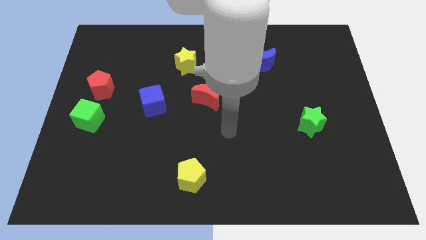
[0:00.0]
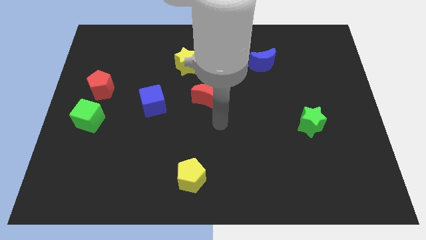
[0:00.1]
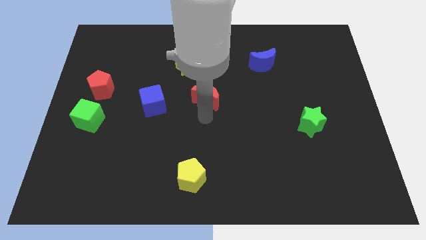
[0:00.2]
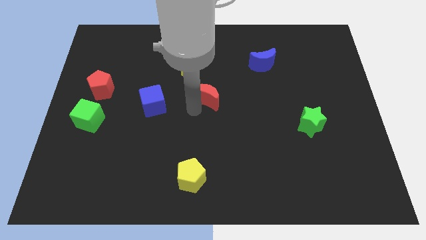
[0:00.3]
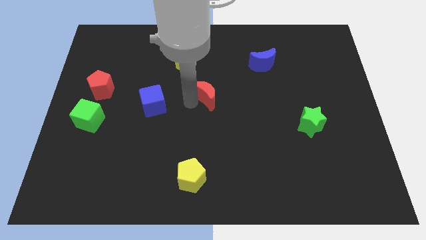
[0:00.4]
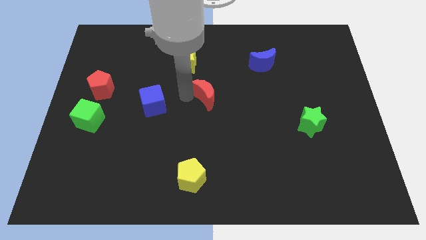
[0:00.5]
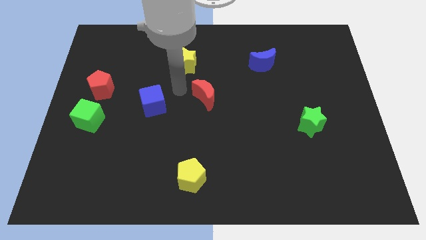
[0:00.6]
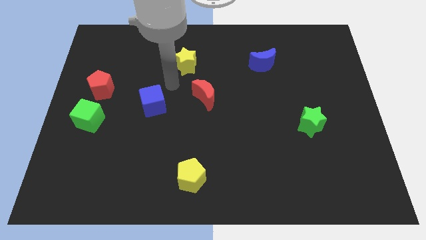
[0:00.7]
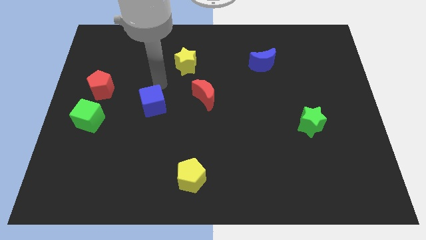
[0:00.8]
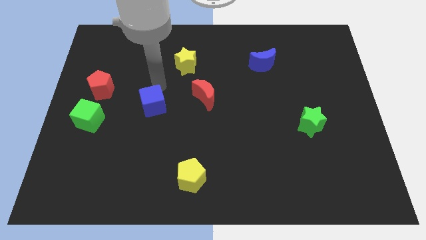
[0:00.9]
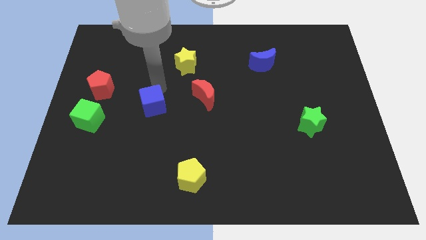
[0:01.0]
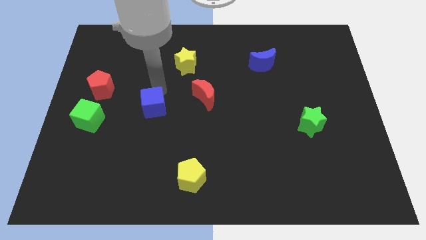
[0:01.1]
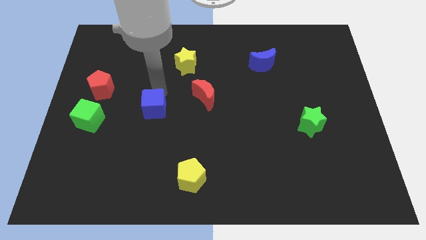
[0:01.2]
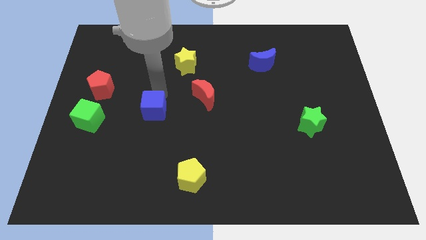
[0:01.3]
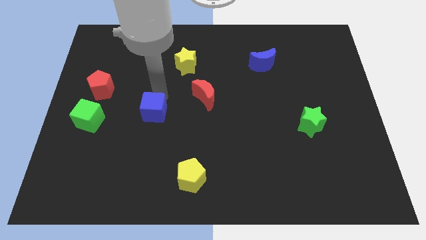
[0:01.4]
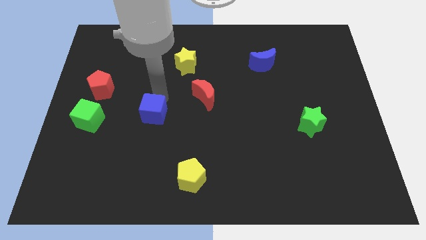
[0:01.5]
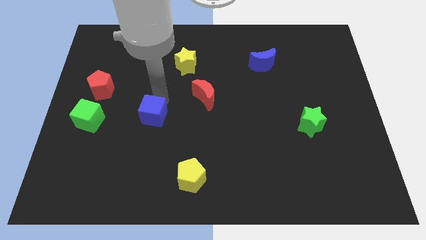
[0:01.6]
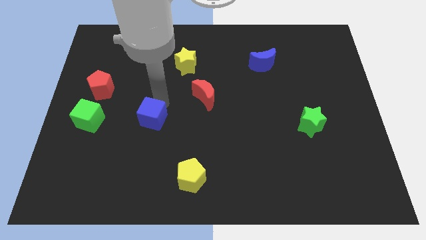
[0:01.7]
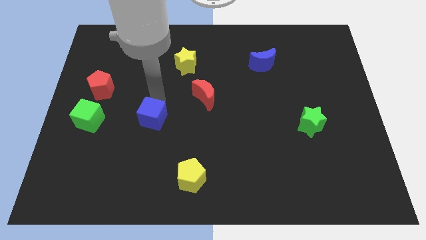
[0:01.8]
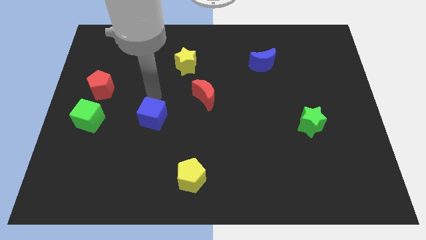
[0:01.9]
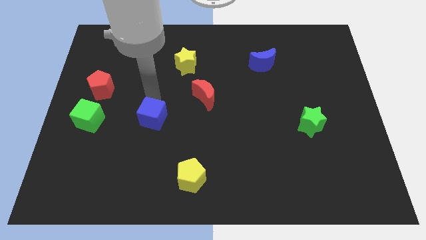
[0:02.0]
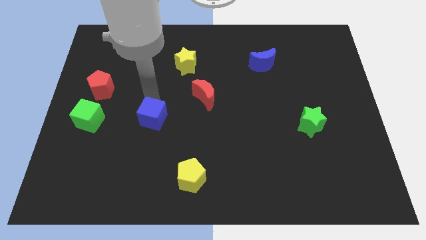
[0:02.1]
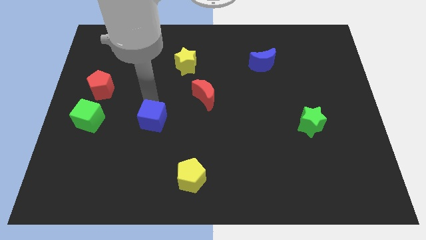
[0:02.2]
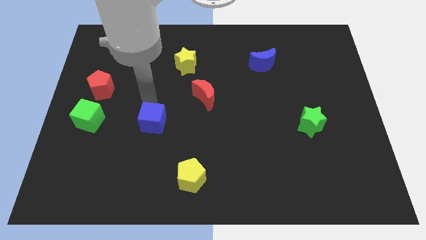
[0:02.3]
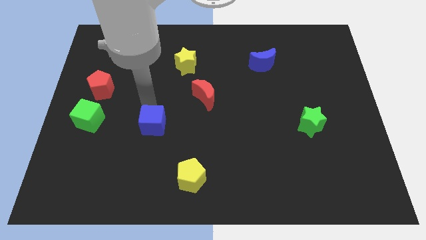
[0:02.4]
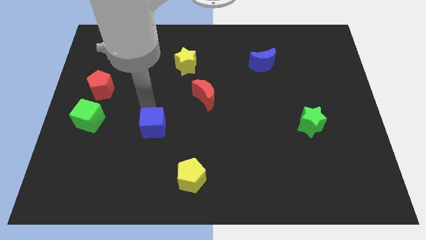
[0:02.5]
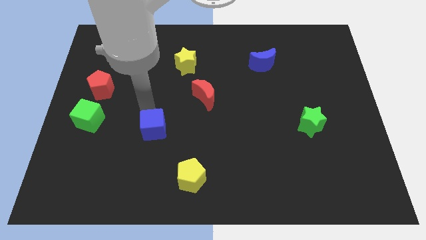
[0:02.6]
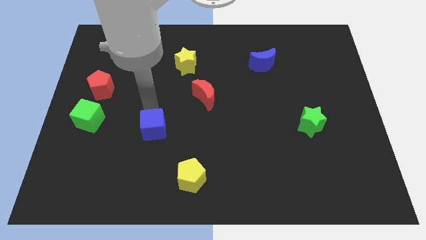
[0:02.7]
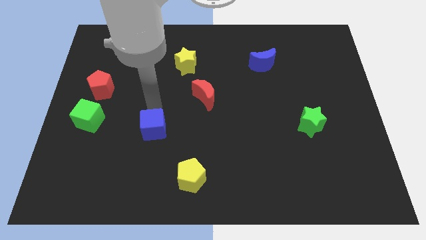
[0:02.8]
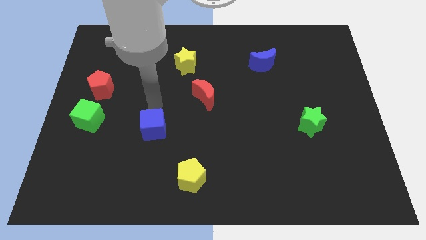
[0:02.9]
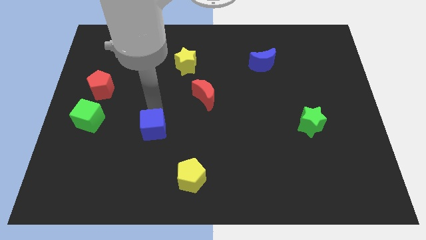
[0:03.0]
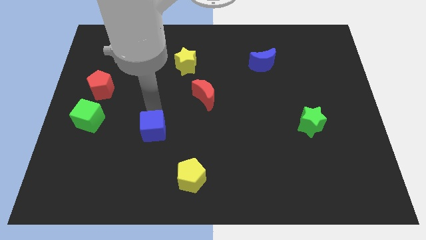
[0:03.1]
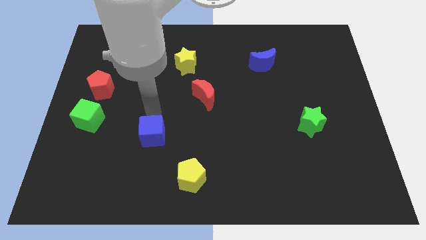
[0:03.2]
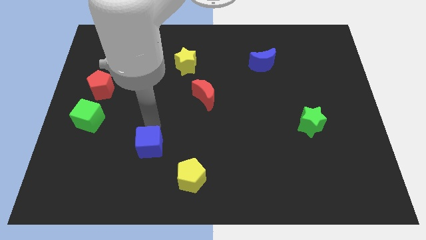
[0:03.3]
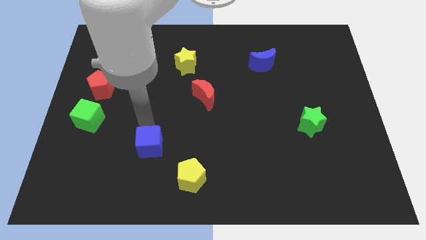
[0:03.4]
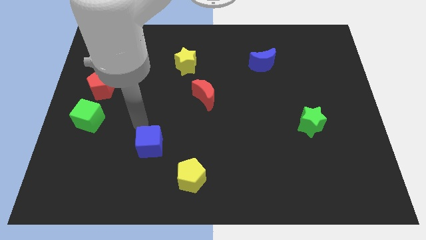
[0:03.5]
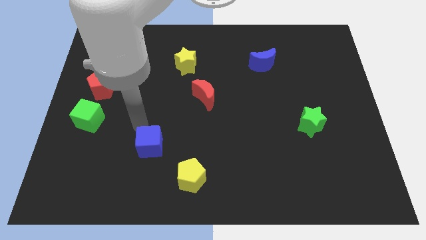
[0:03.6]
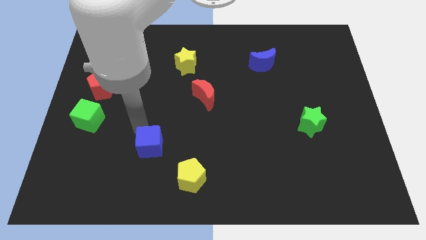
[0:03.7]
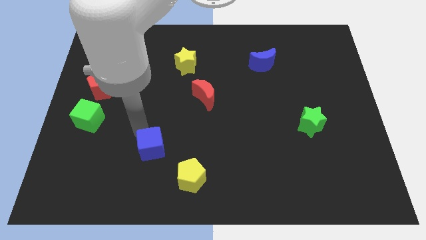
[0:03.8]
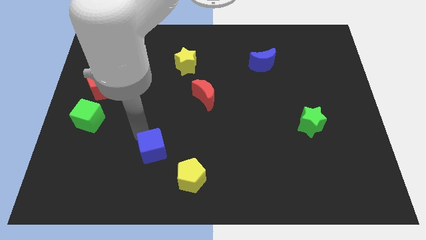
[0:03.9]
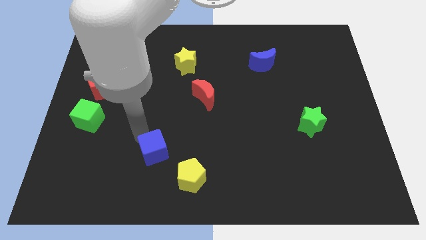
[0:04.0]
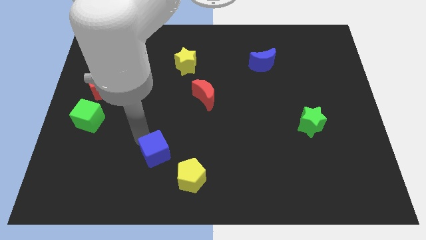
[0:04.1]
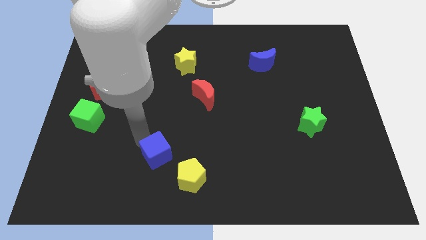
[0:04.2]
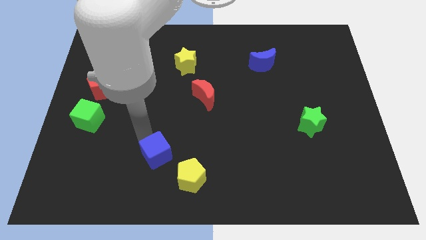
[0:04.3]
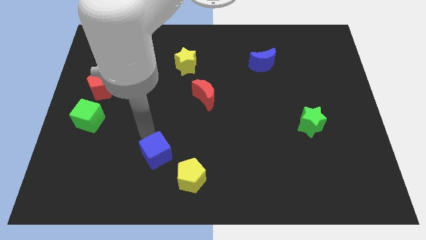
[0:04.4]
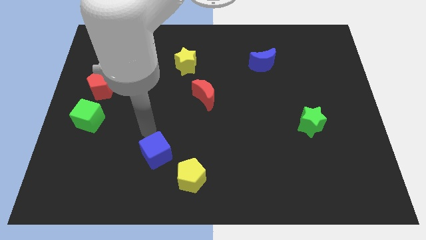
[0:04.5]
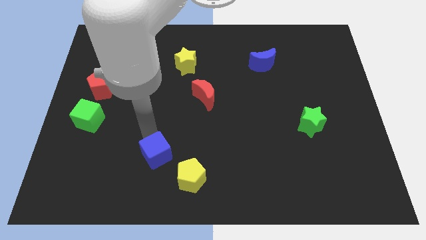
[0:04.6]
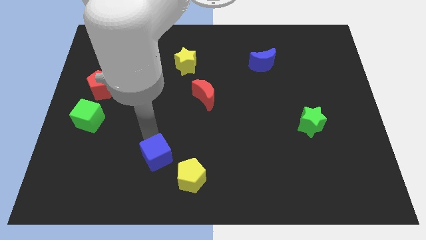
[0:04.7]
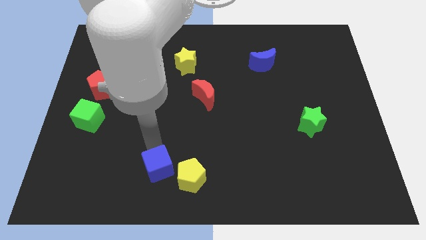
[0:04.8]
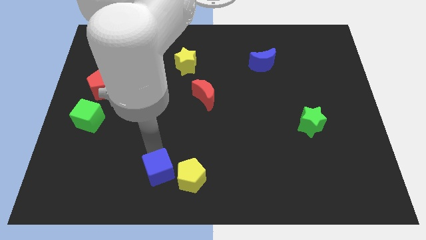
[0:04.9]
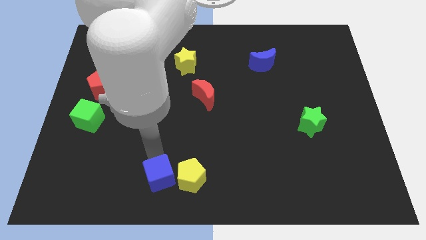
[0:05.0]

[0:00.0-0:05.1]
slide the blue cube to the bottom side

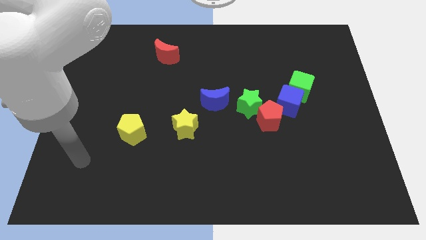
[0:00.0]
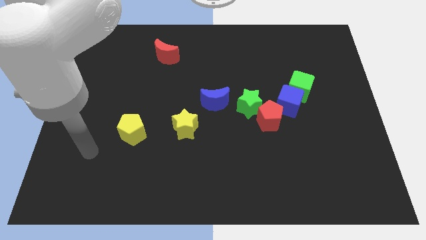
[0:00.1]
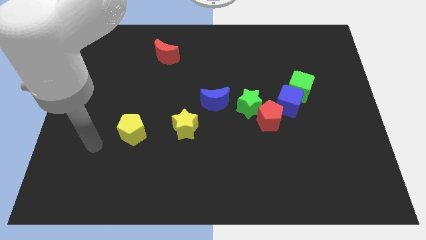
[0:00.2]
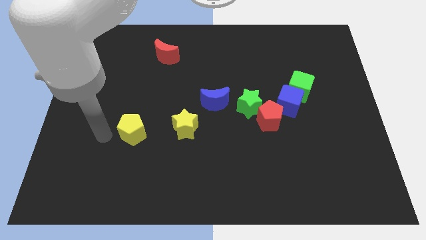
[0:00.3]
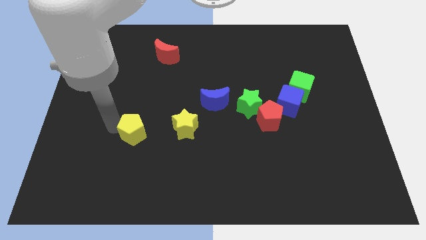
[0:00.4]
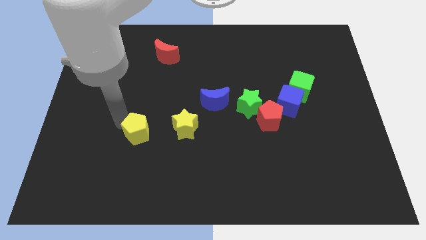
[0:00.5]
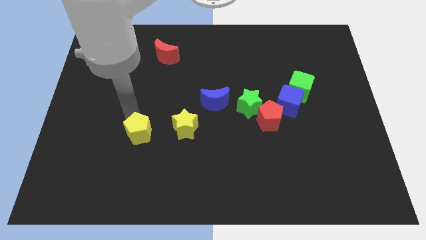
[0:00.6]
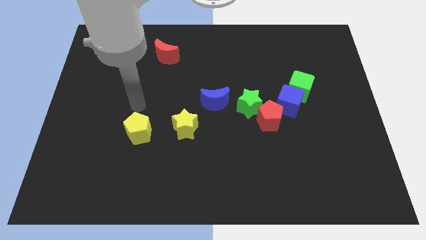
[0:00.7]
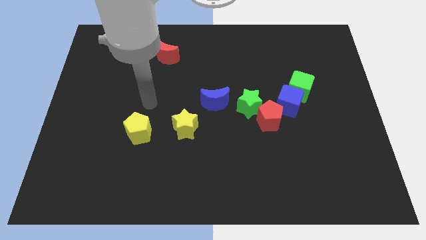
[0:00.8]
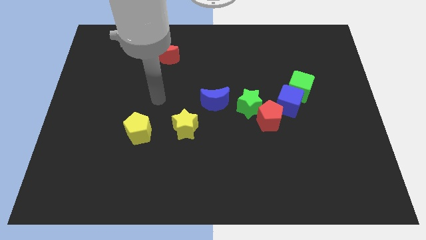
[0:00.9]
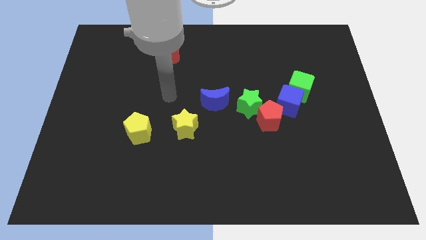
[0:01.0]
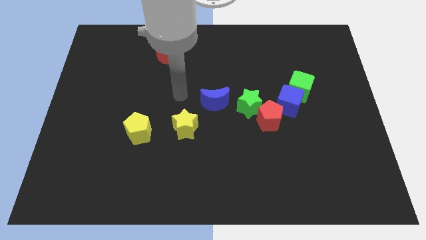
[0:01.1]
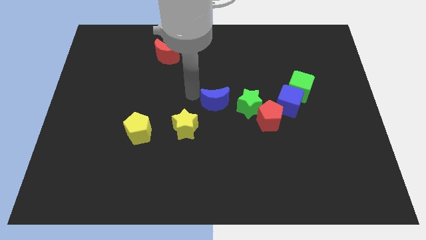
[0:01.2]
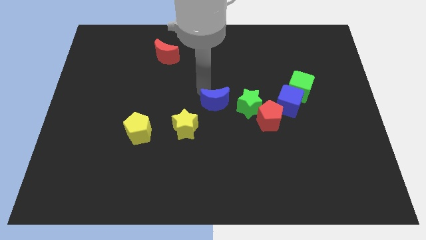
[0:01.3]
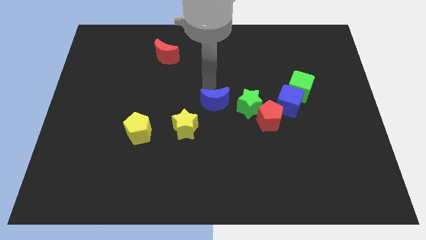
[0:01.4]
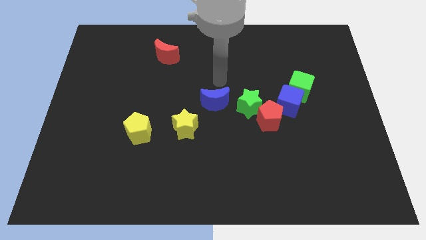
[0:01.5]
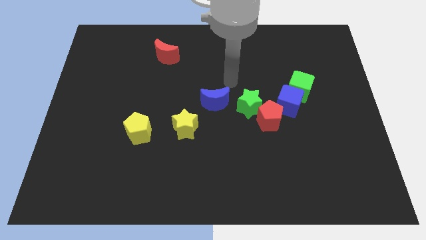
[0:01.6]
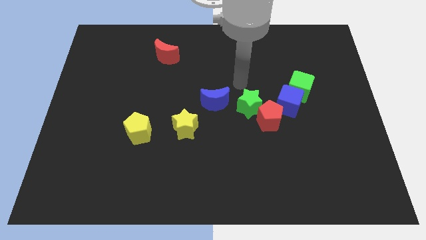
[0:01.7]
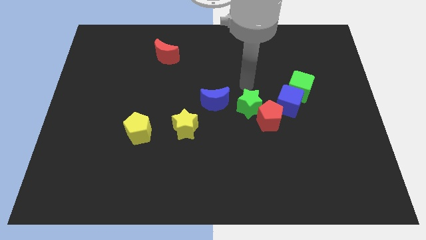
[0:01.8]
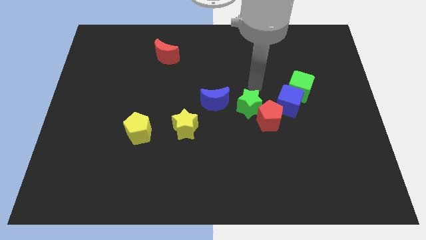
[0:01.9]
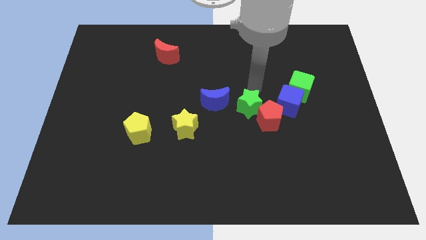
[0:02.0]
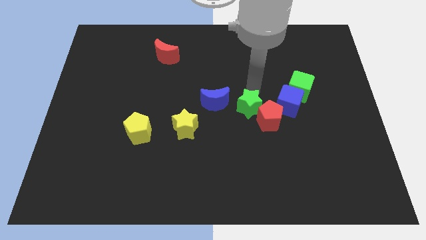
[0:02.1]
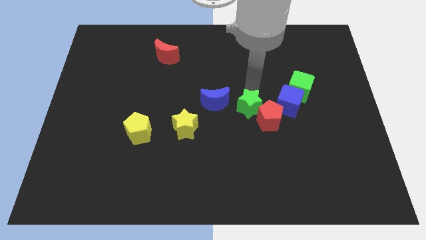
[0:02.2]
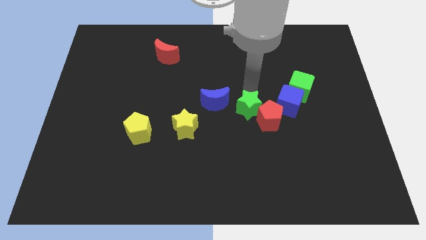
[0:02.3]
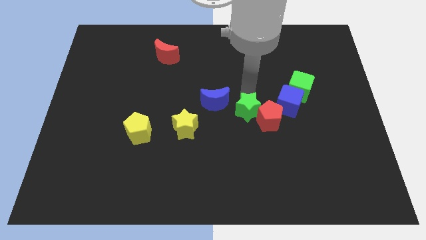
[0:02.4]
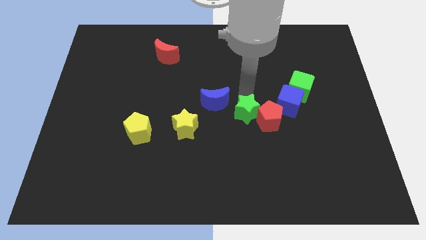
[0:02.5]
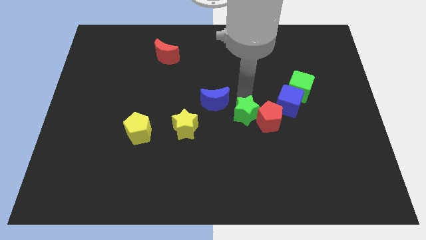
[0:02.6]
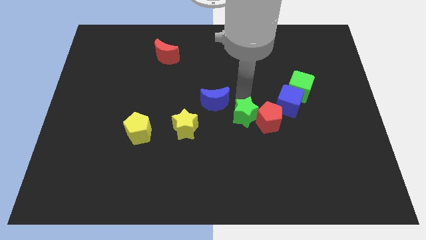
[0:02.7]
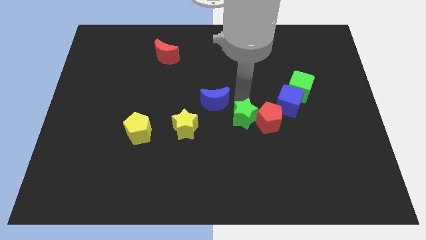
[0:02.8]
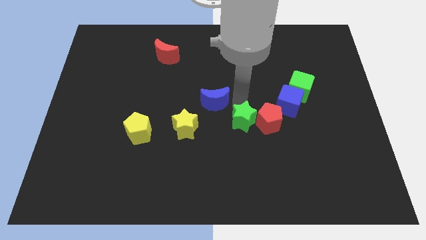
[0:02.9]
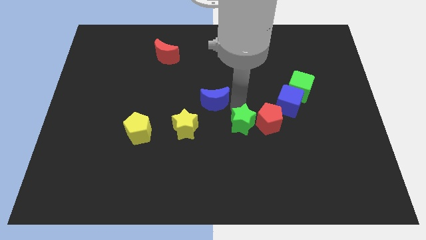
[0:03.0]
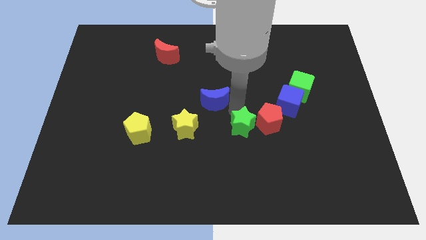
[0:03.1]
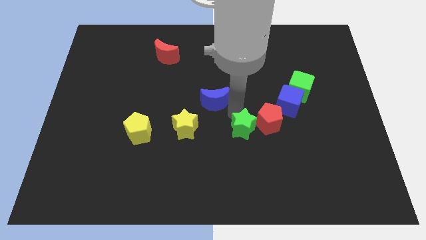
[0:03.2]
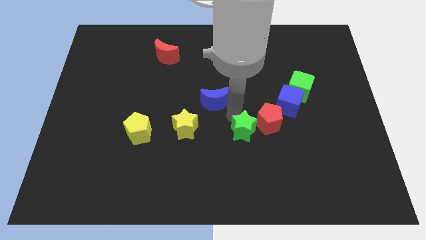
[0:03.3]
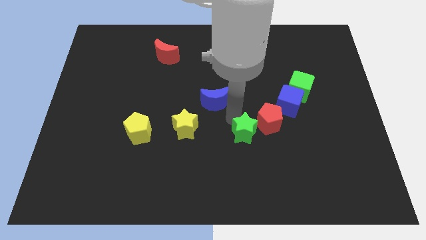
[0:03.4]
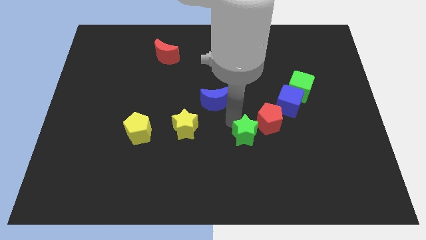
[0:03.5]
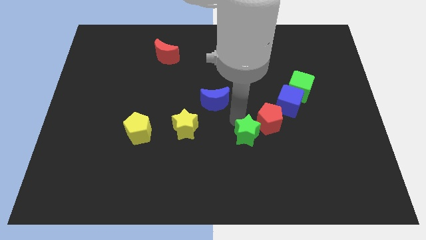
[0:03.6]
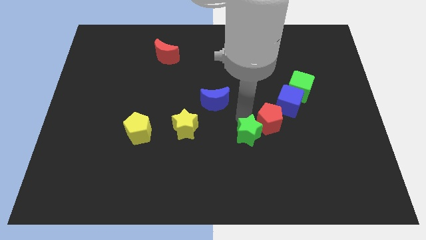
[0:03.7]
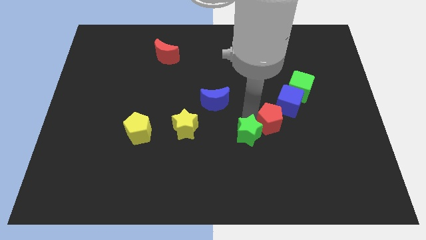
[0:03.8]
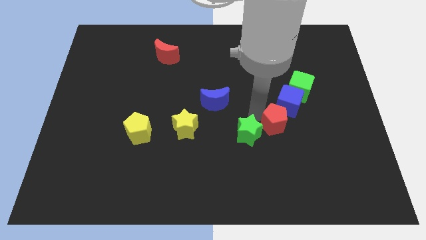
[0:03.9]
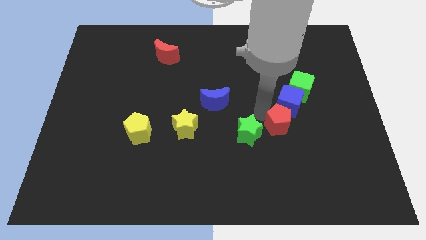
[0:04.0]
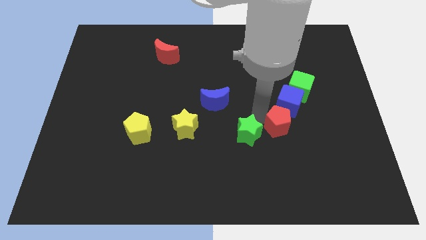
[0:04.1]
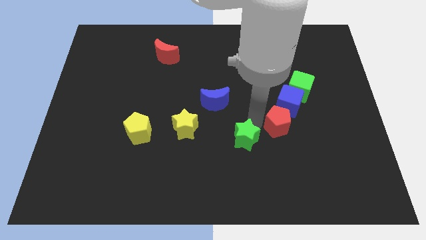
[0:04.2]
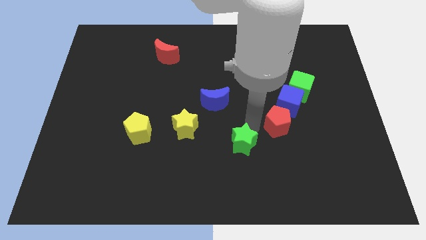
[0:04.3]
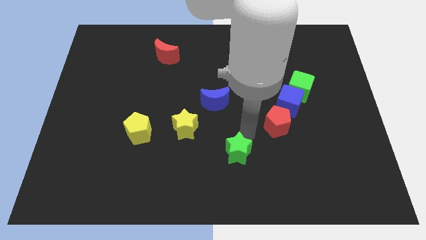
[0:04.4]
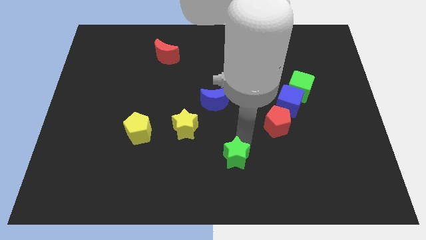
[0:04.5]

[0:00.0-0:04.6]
put the green star to the bottom
